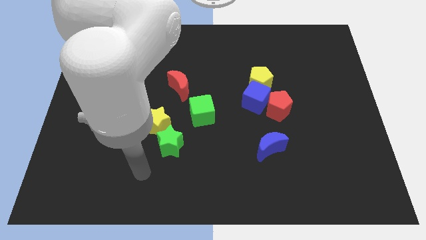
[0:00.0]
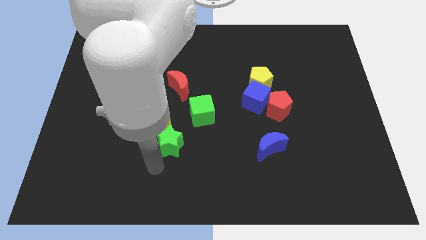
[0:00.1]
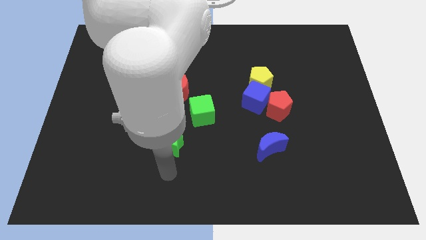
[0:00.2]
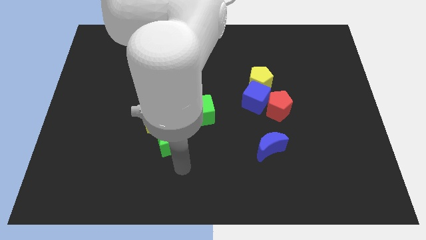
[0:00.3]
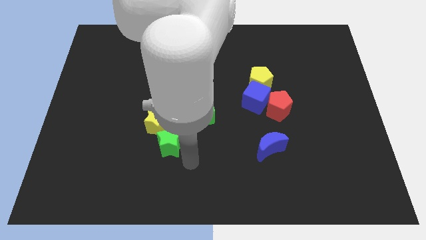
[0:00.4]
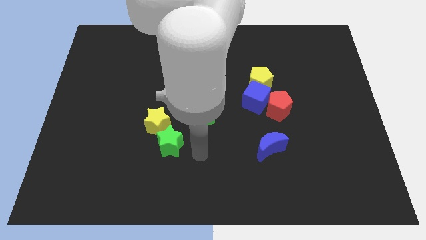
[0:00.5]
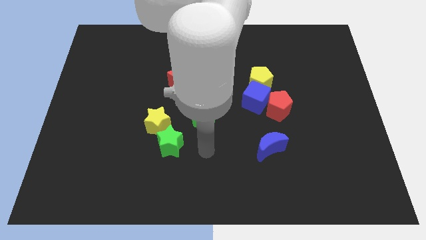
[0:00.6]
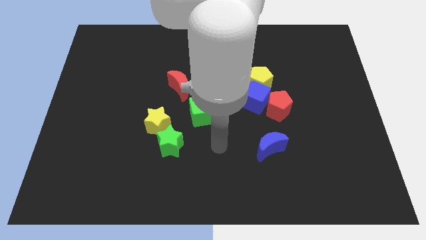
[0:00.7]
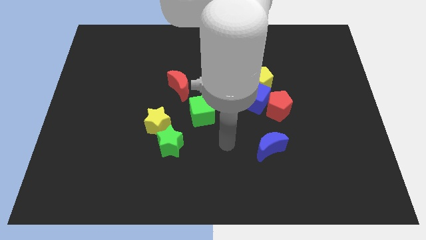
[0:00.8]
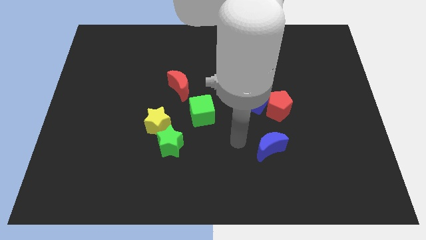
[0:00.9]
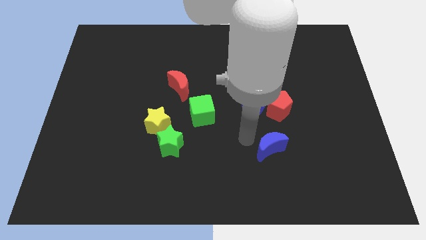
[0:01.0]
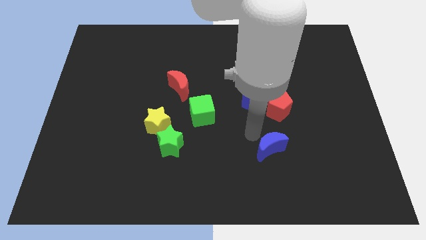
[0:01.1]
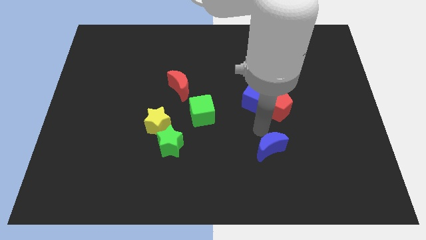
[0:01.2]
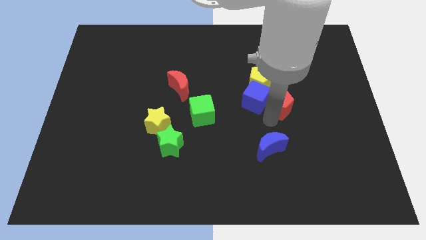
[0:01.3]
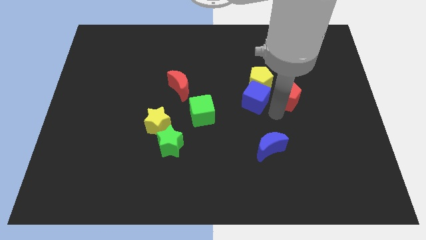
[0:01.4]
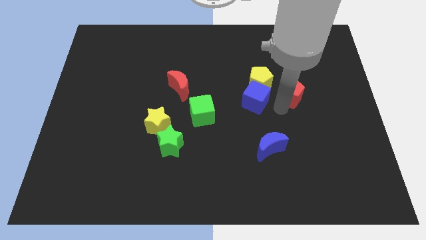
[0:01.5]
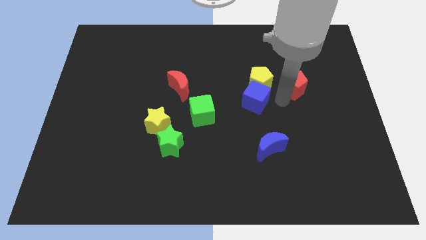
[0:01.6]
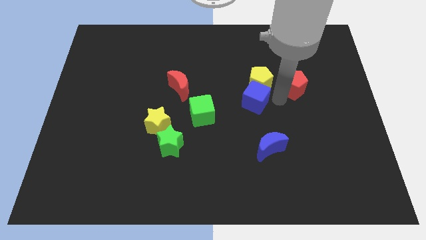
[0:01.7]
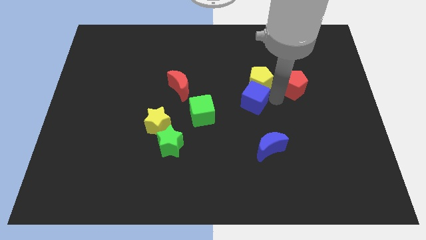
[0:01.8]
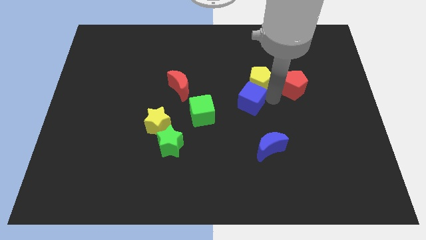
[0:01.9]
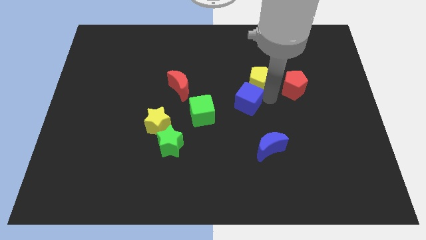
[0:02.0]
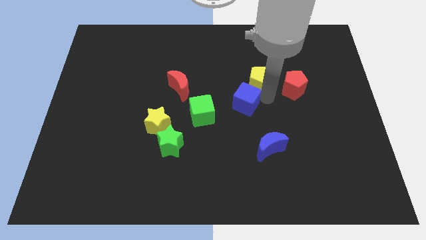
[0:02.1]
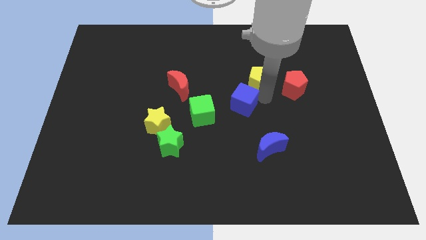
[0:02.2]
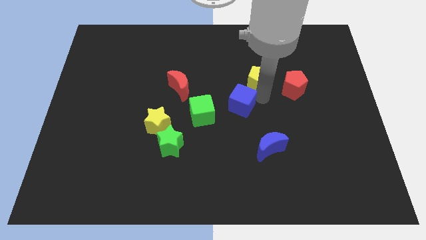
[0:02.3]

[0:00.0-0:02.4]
pull the blue cube apart from the yellow pentagon and red pentagon

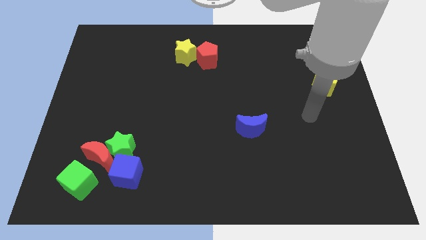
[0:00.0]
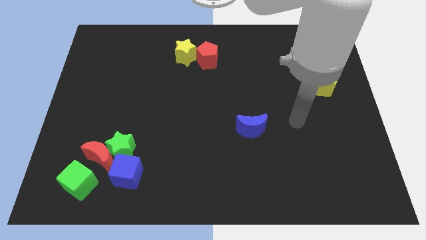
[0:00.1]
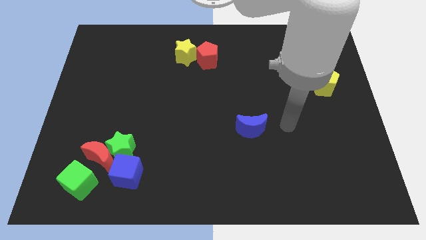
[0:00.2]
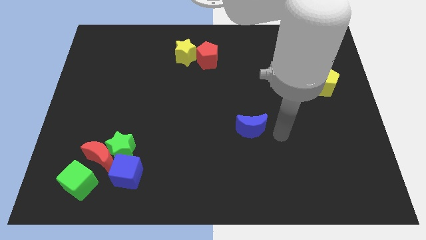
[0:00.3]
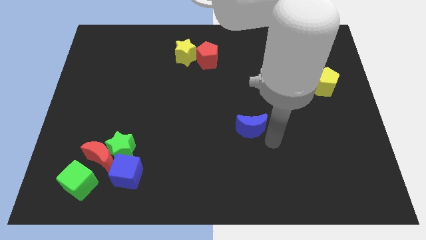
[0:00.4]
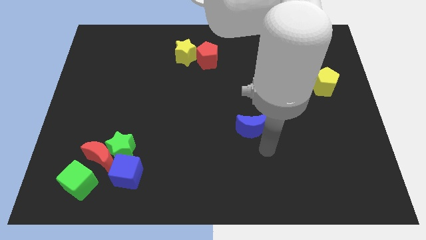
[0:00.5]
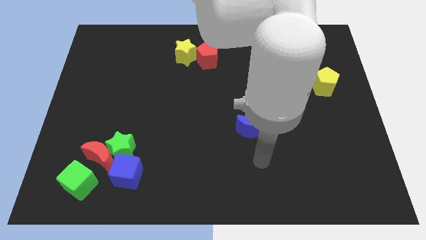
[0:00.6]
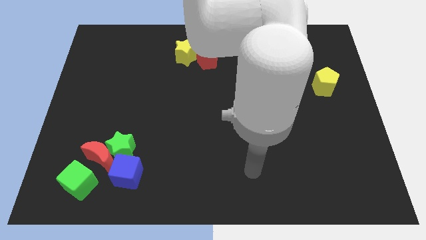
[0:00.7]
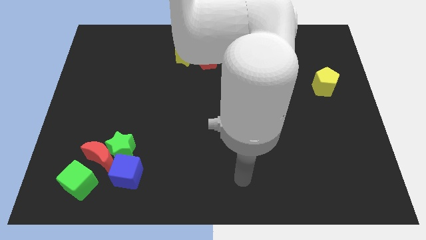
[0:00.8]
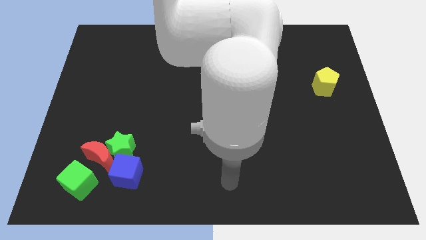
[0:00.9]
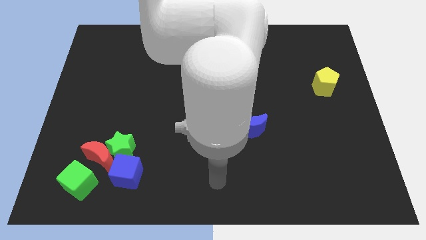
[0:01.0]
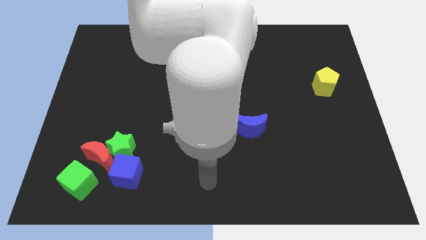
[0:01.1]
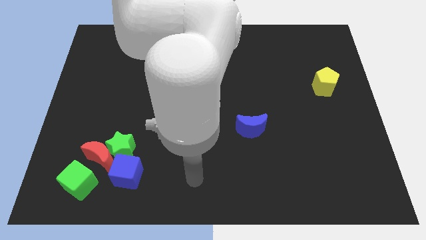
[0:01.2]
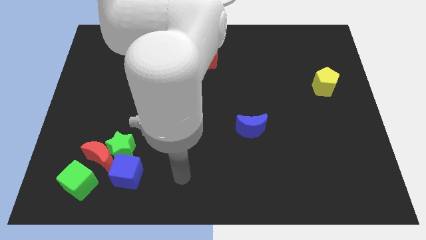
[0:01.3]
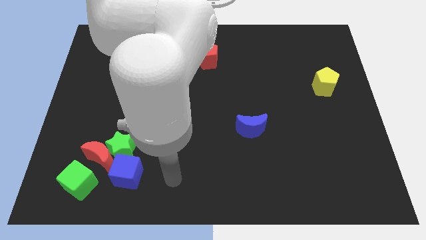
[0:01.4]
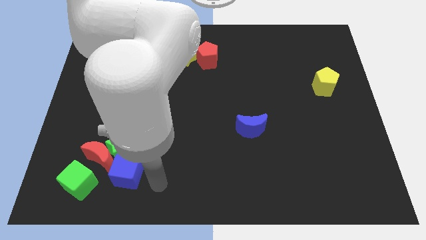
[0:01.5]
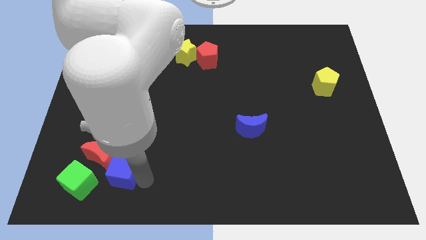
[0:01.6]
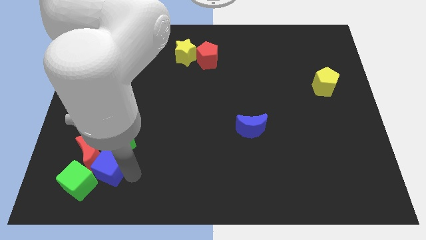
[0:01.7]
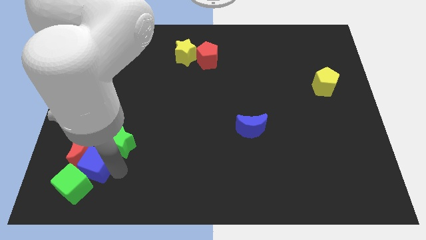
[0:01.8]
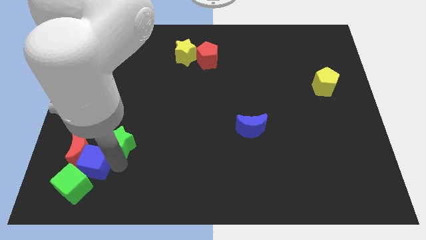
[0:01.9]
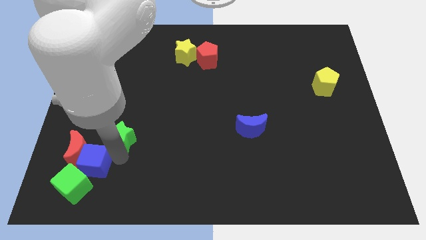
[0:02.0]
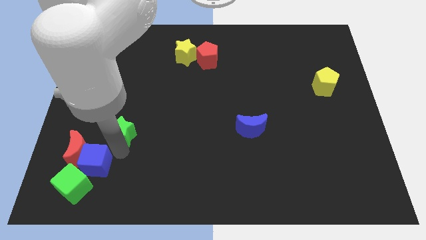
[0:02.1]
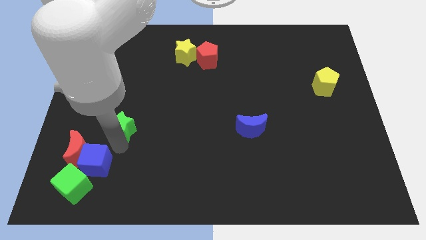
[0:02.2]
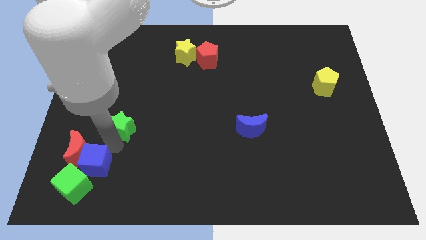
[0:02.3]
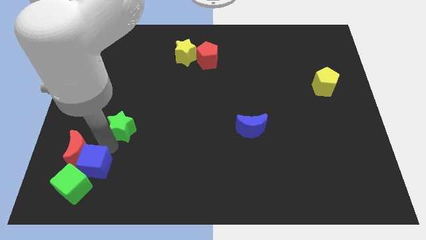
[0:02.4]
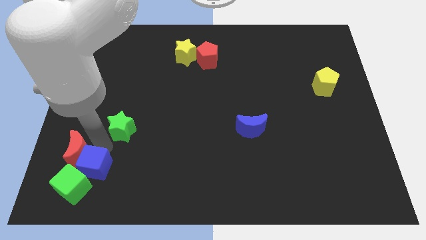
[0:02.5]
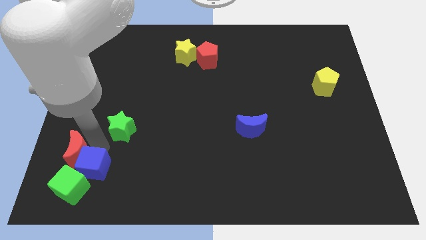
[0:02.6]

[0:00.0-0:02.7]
pull the green star apart from the red moon and blue cube

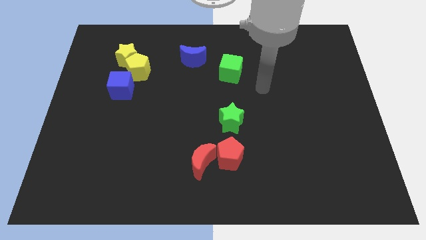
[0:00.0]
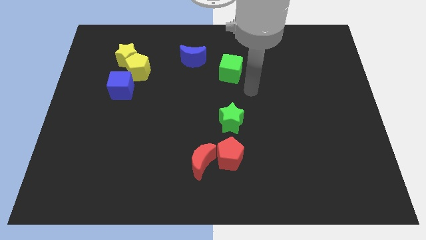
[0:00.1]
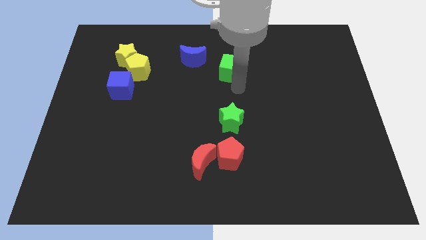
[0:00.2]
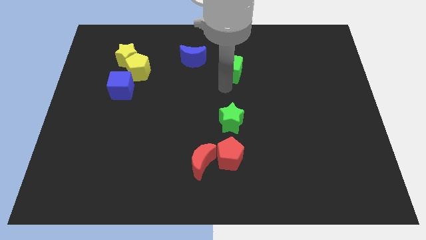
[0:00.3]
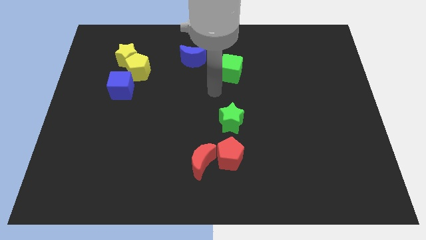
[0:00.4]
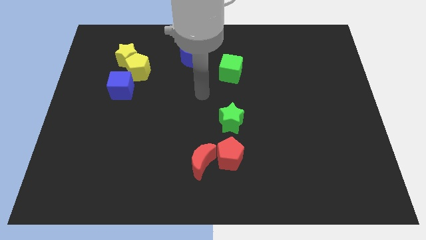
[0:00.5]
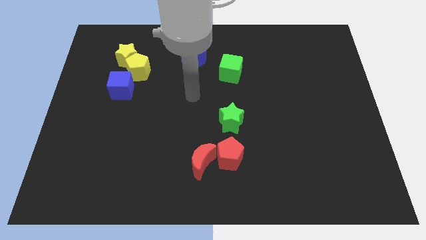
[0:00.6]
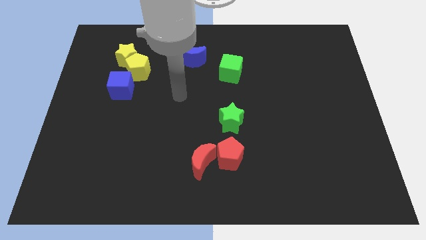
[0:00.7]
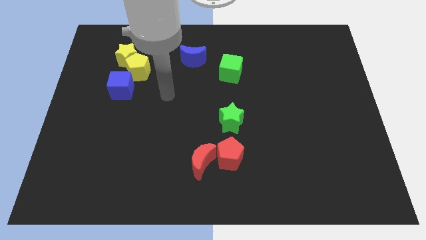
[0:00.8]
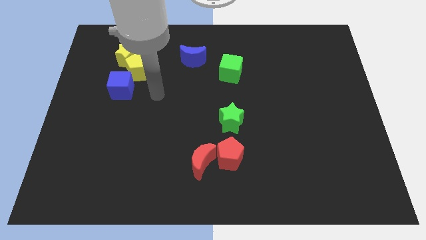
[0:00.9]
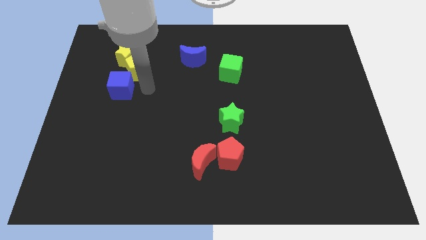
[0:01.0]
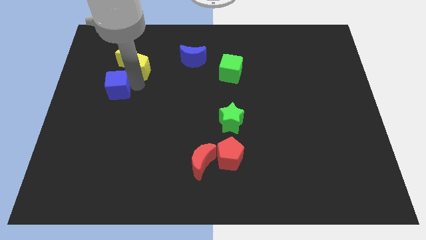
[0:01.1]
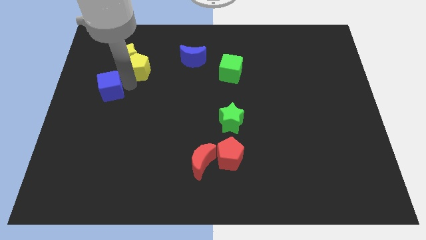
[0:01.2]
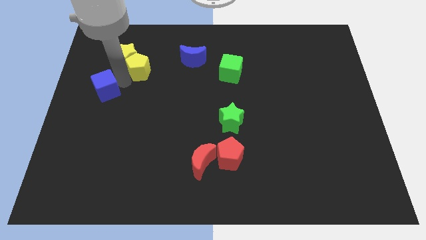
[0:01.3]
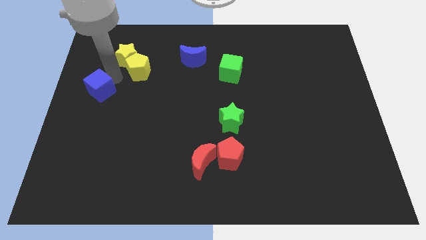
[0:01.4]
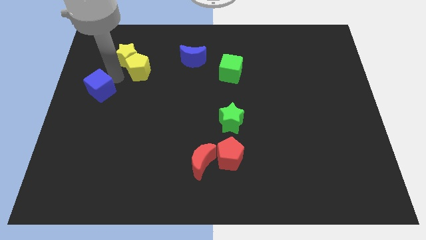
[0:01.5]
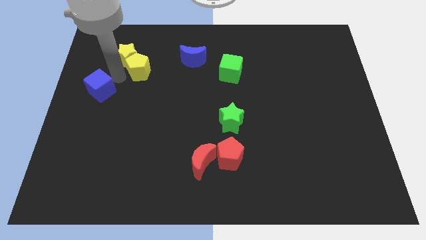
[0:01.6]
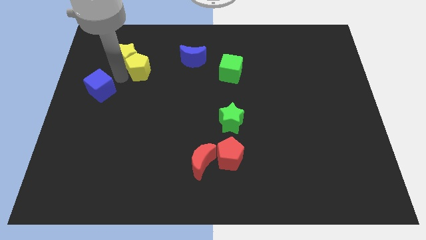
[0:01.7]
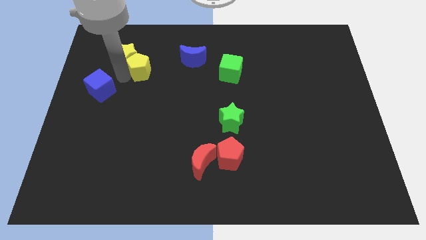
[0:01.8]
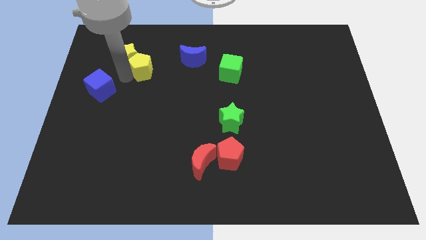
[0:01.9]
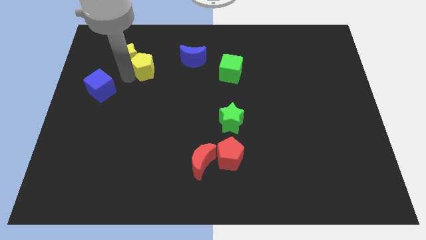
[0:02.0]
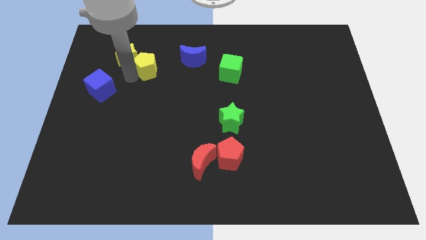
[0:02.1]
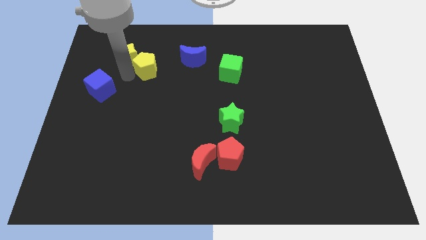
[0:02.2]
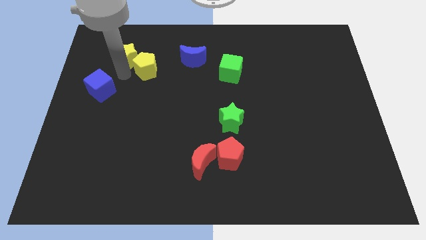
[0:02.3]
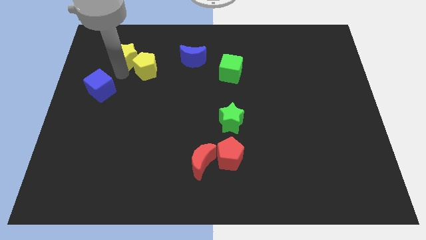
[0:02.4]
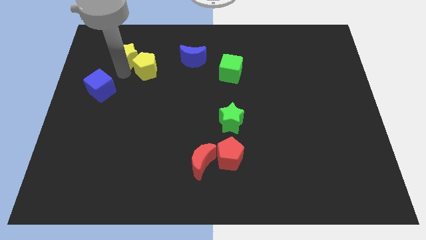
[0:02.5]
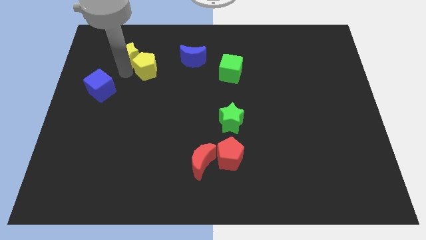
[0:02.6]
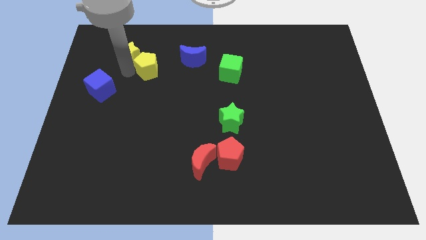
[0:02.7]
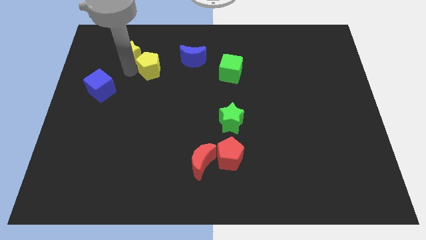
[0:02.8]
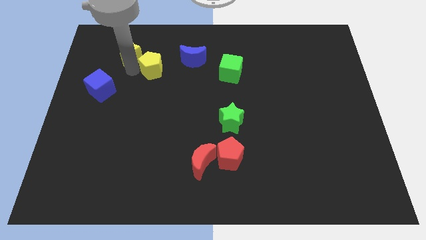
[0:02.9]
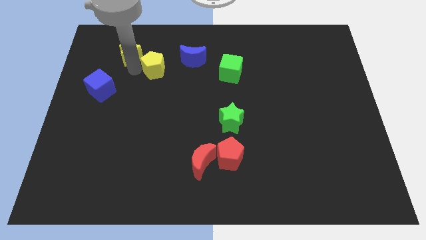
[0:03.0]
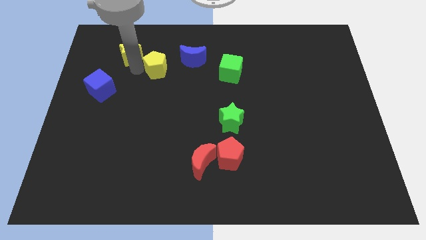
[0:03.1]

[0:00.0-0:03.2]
separate the yellow pentagon from the yellow star and blue cube

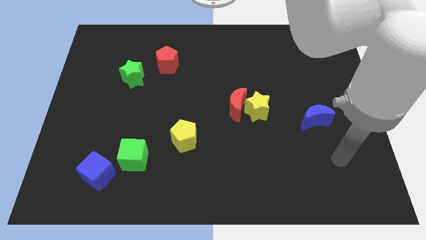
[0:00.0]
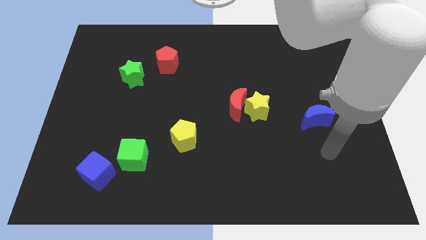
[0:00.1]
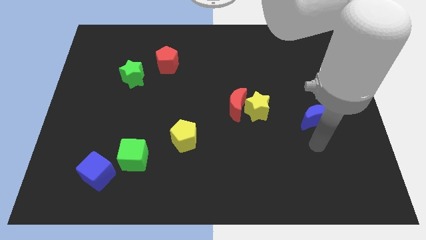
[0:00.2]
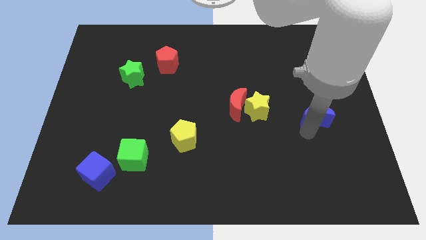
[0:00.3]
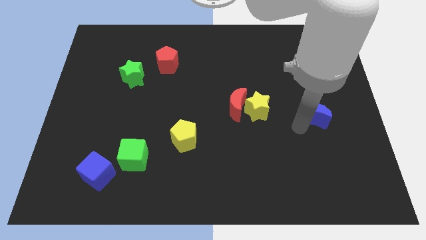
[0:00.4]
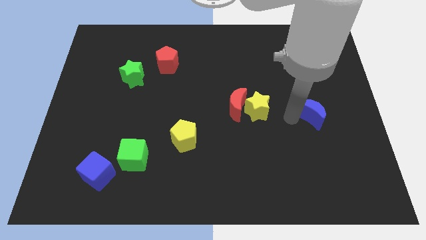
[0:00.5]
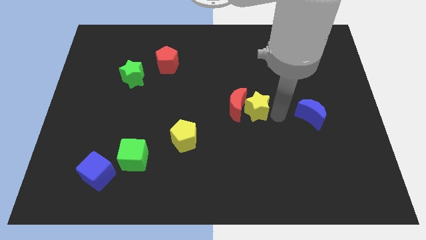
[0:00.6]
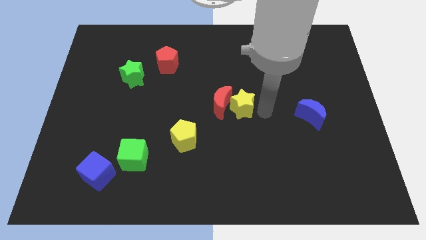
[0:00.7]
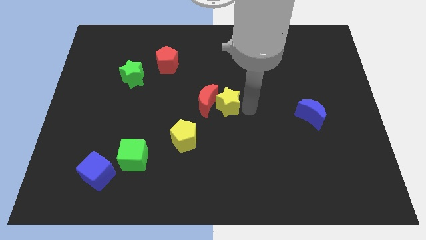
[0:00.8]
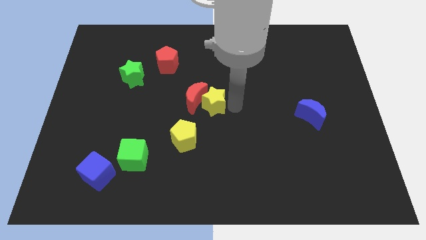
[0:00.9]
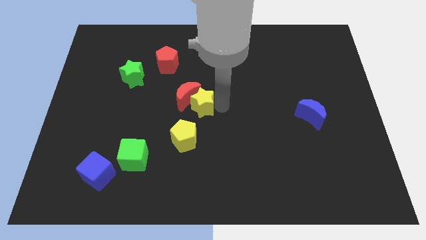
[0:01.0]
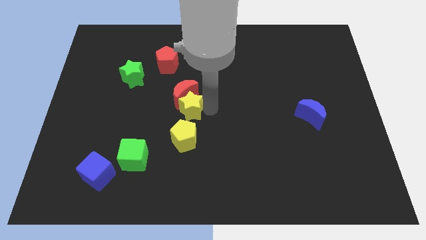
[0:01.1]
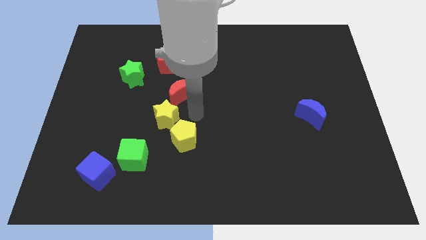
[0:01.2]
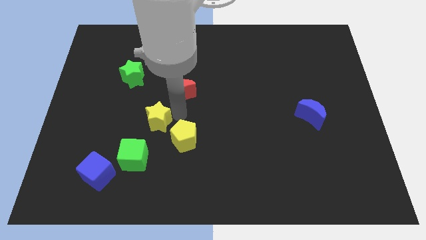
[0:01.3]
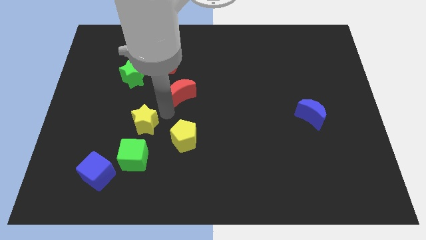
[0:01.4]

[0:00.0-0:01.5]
move the red moon away from the yellow star
